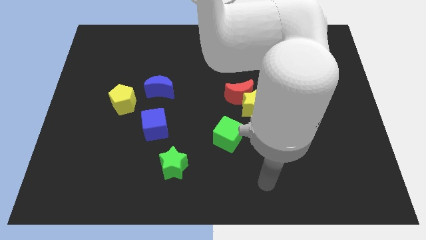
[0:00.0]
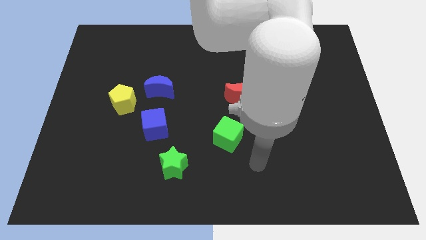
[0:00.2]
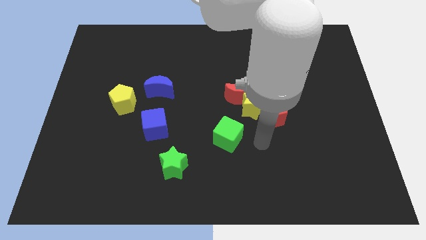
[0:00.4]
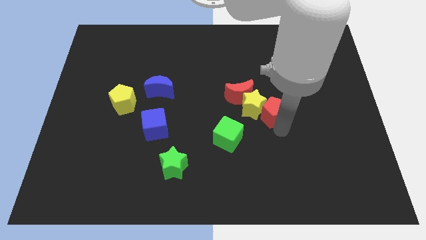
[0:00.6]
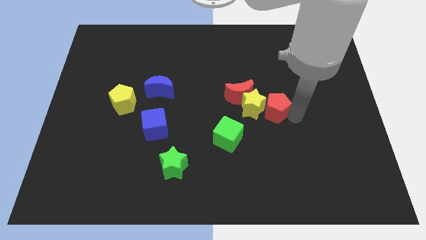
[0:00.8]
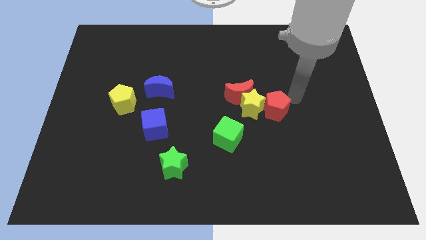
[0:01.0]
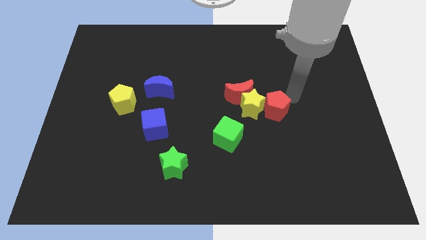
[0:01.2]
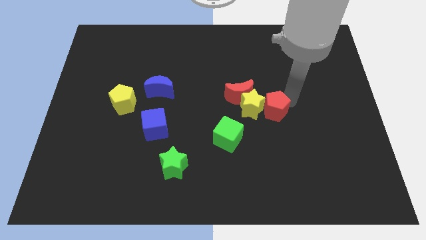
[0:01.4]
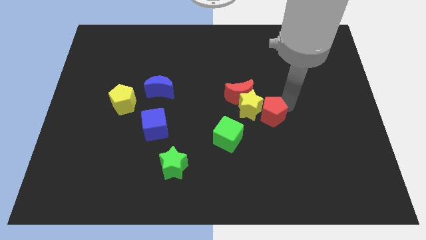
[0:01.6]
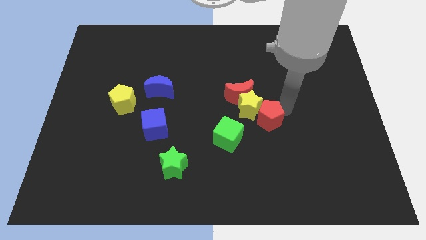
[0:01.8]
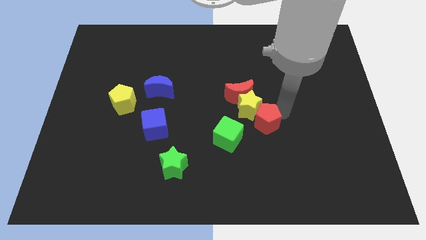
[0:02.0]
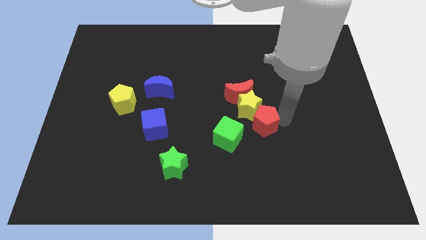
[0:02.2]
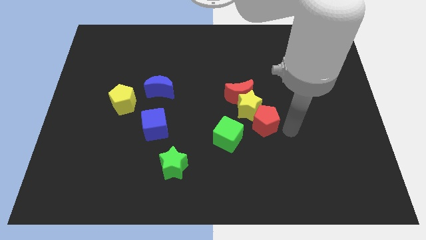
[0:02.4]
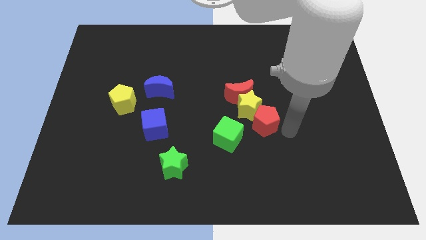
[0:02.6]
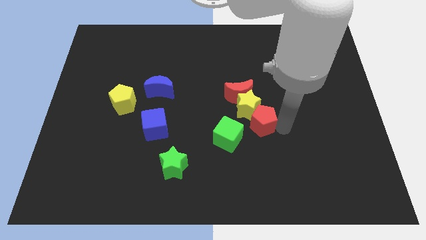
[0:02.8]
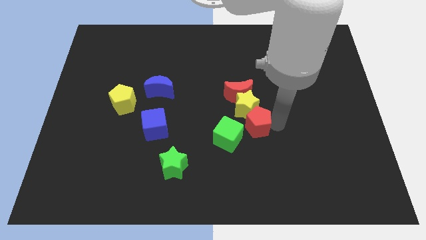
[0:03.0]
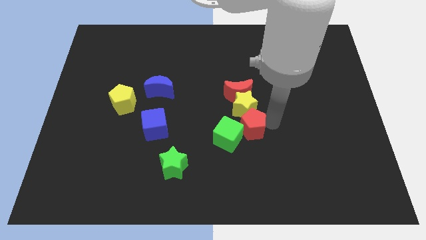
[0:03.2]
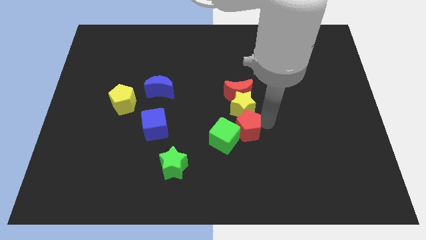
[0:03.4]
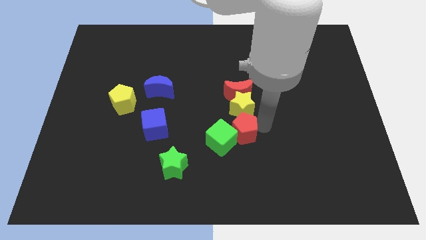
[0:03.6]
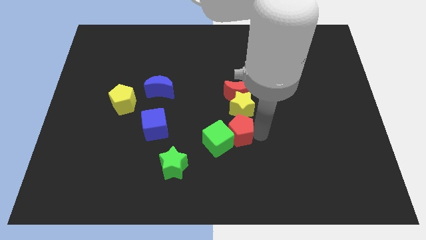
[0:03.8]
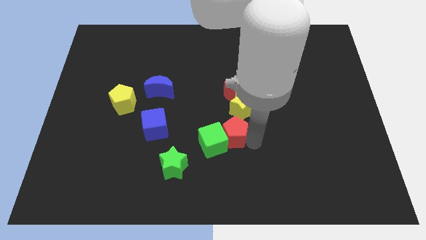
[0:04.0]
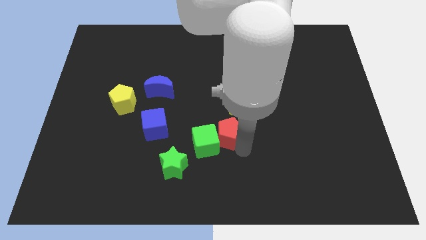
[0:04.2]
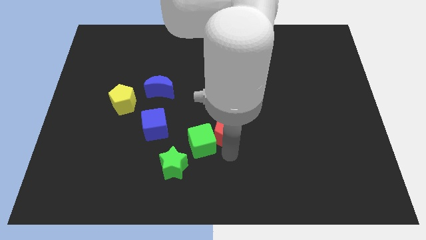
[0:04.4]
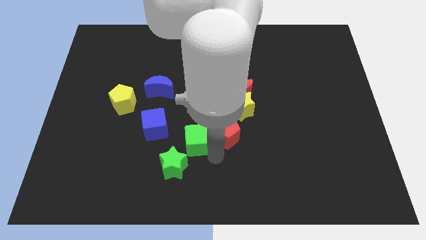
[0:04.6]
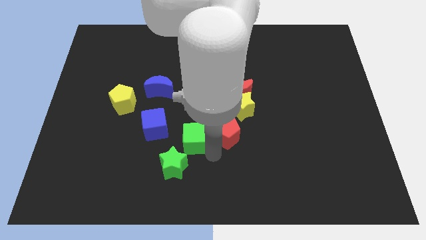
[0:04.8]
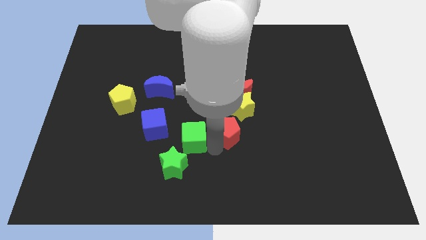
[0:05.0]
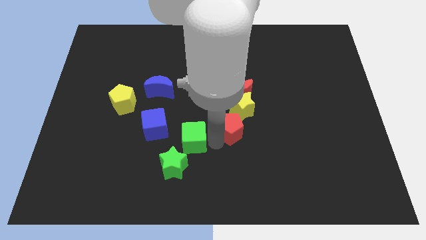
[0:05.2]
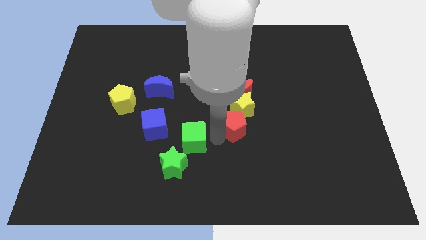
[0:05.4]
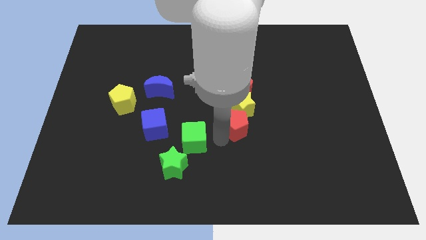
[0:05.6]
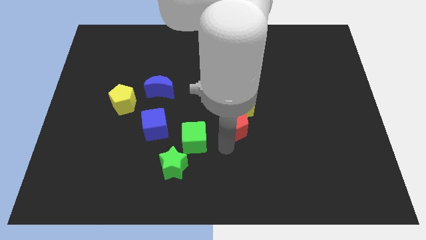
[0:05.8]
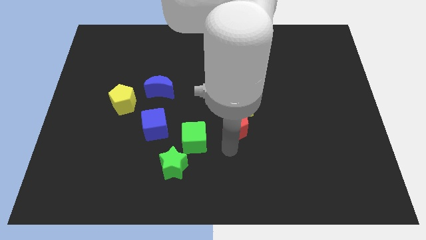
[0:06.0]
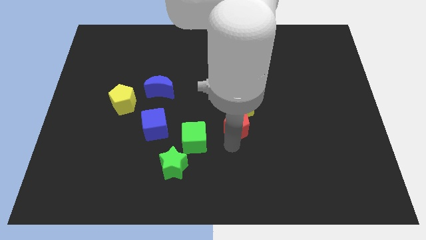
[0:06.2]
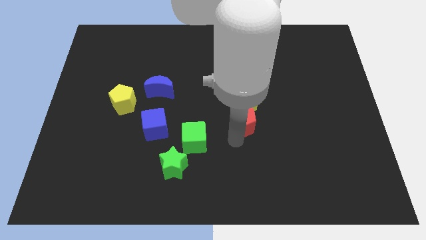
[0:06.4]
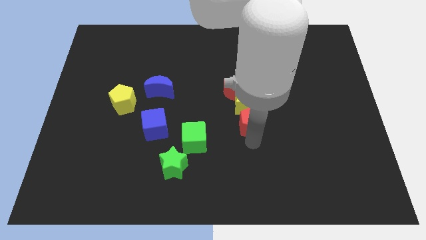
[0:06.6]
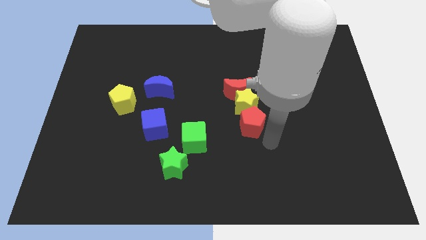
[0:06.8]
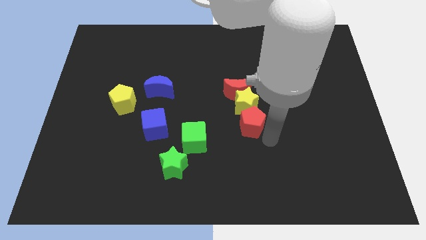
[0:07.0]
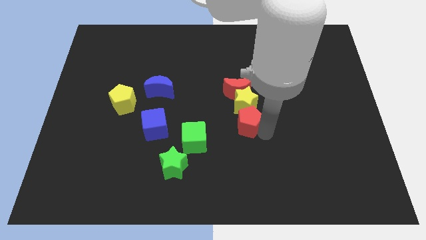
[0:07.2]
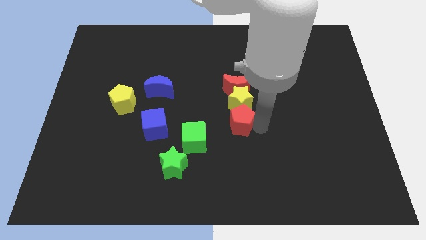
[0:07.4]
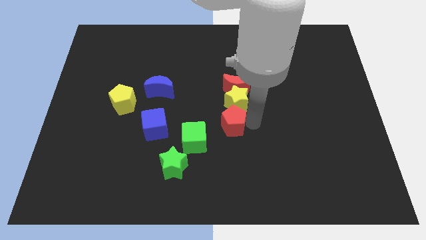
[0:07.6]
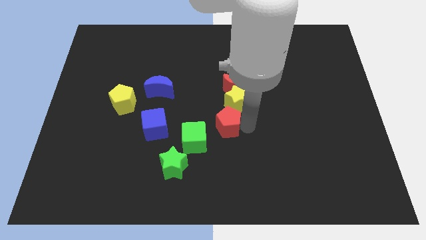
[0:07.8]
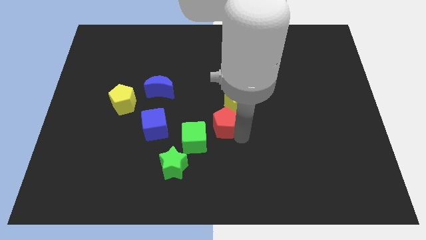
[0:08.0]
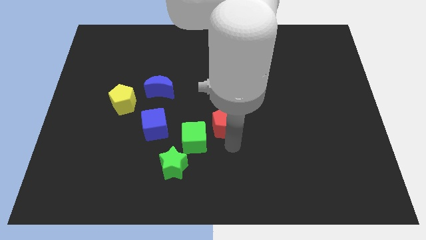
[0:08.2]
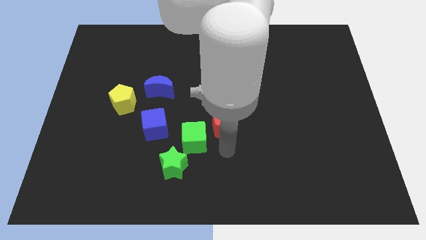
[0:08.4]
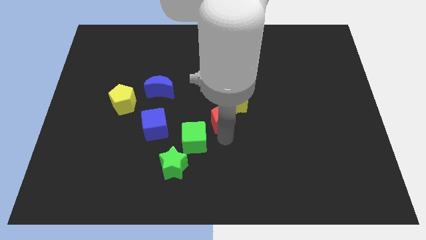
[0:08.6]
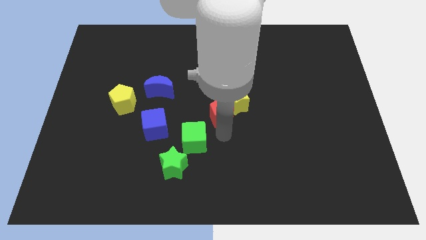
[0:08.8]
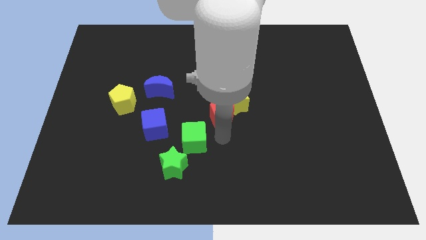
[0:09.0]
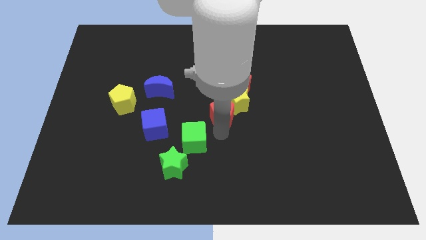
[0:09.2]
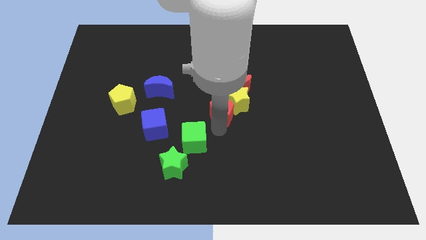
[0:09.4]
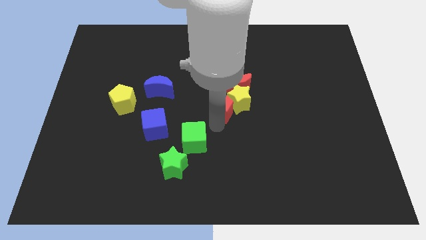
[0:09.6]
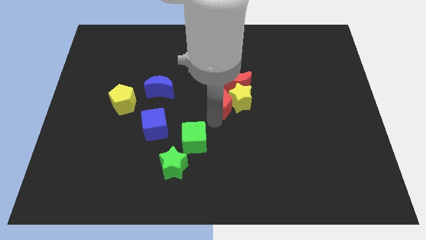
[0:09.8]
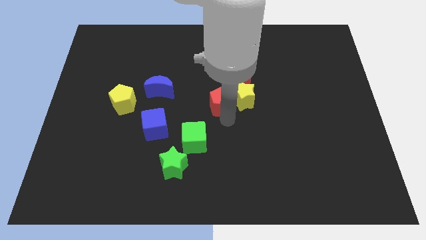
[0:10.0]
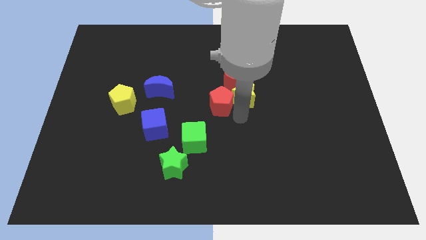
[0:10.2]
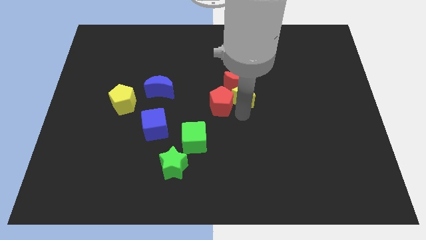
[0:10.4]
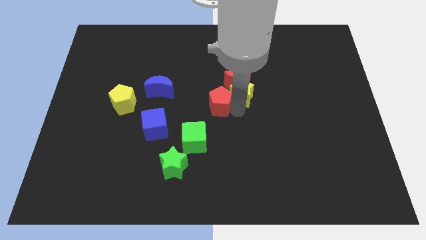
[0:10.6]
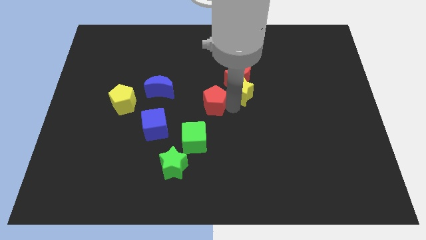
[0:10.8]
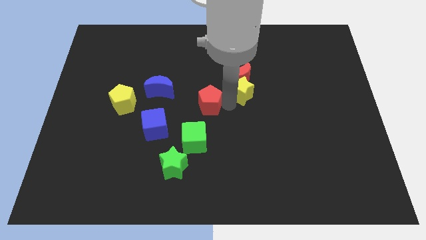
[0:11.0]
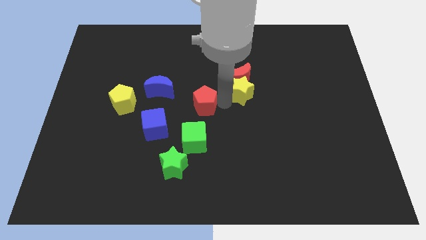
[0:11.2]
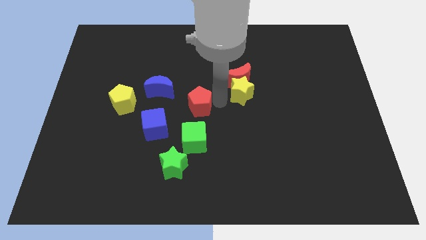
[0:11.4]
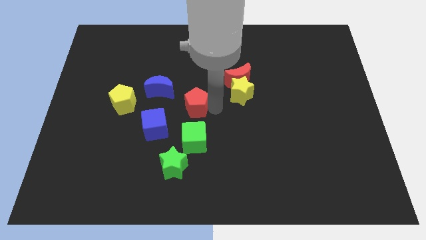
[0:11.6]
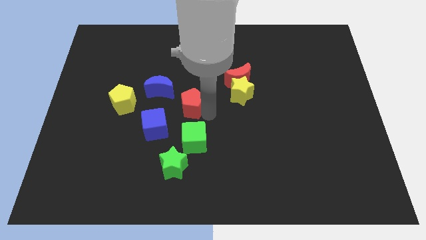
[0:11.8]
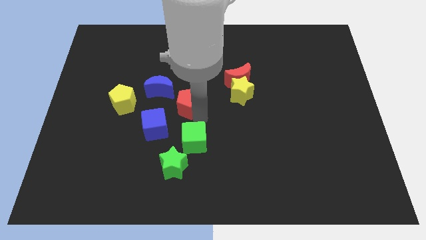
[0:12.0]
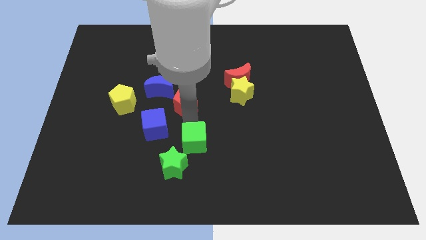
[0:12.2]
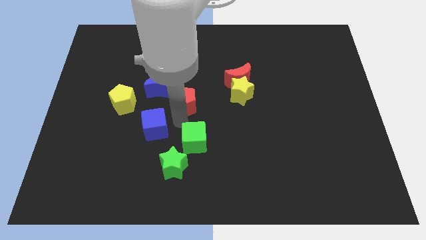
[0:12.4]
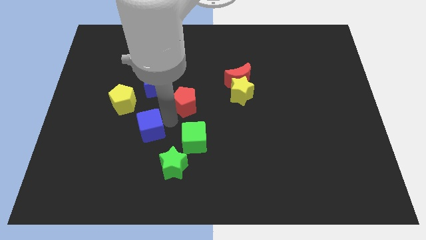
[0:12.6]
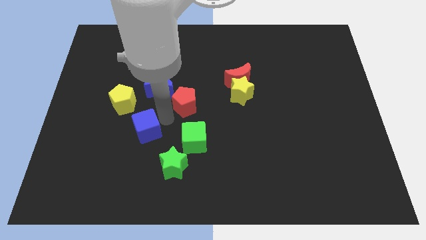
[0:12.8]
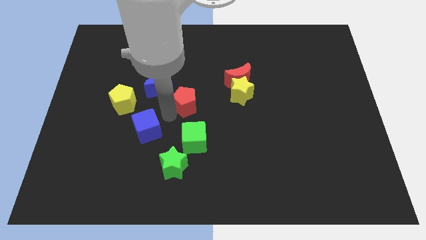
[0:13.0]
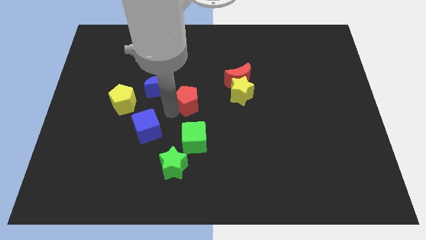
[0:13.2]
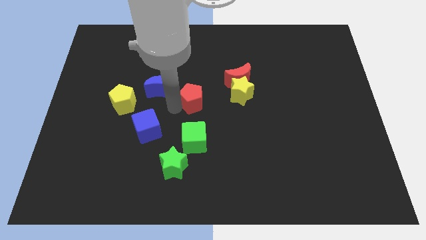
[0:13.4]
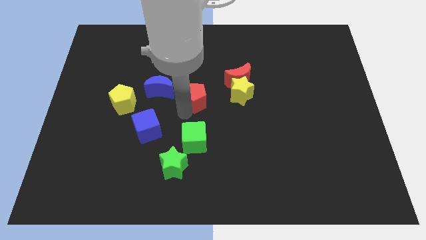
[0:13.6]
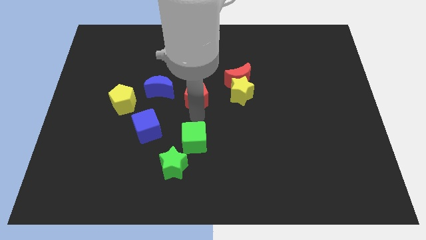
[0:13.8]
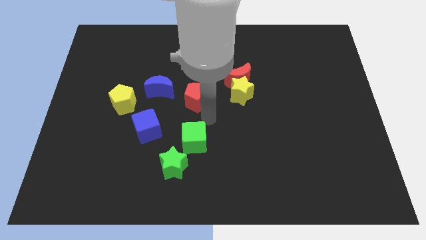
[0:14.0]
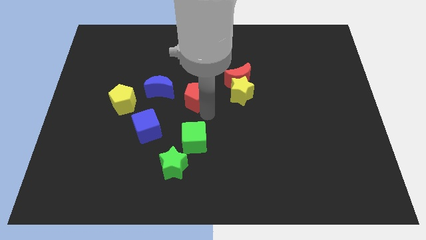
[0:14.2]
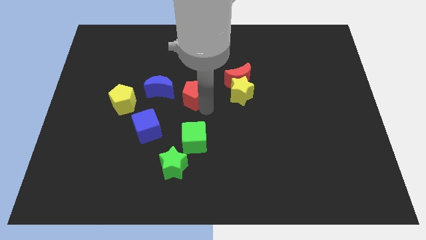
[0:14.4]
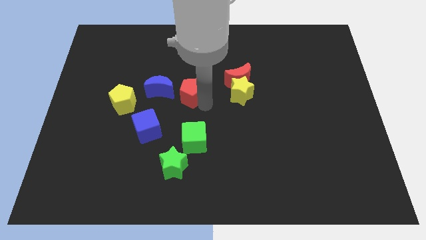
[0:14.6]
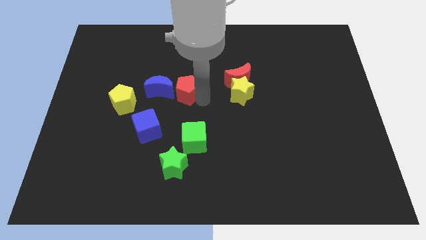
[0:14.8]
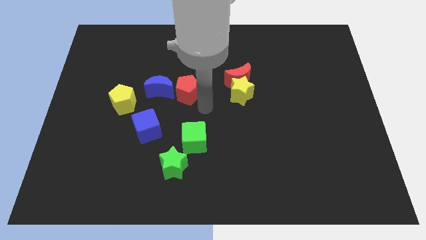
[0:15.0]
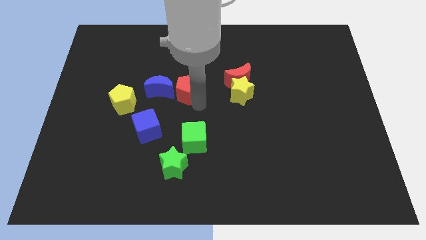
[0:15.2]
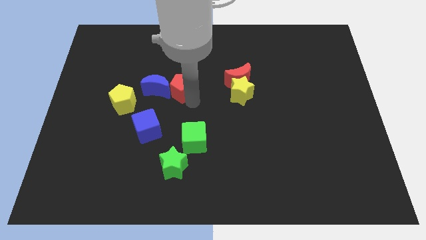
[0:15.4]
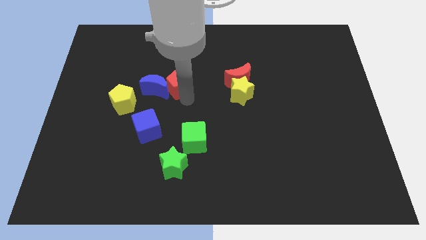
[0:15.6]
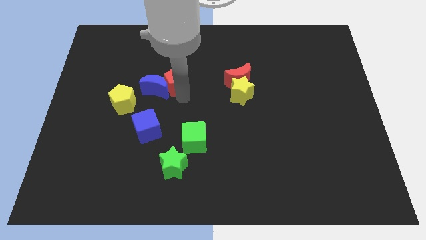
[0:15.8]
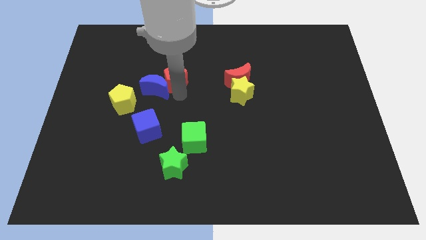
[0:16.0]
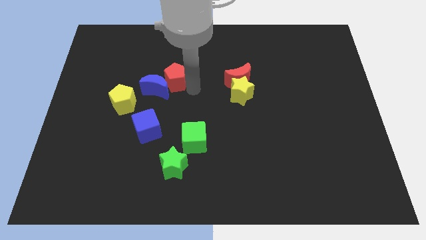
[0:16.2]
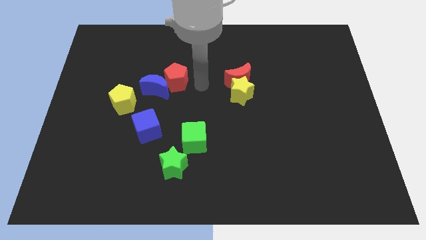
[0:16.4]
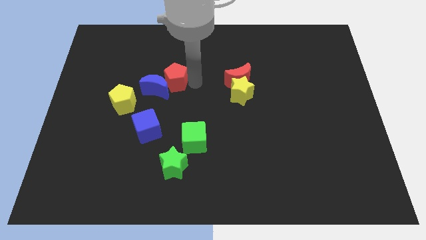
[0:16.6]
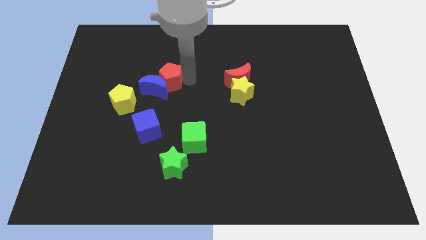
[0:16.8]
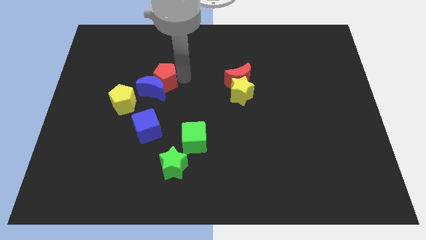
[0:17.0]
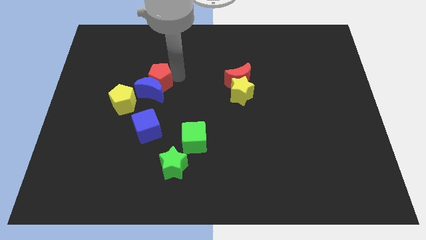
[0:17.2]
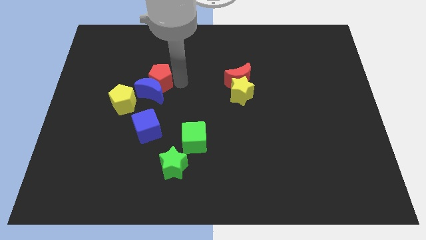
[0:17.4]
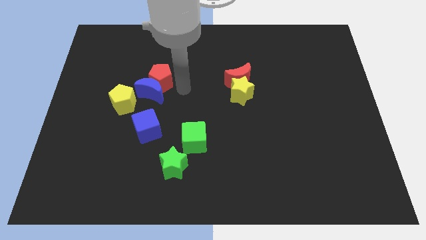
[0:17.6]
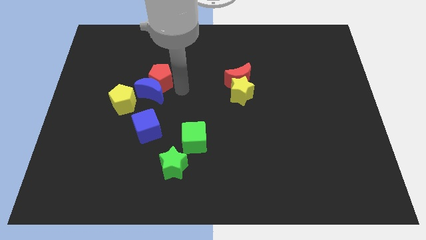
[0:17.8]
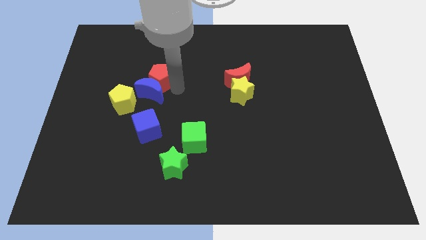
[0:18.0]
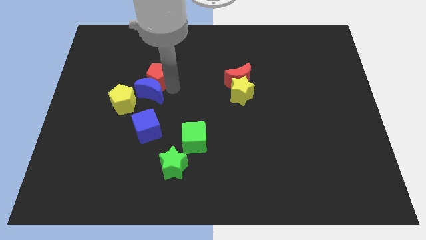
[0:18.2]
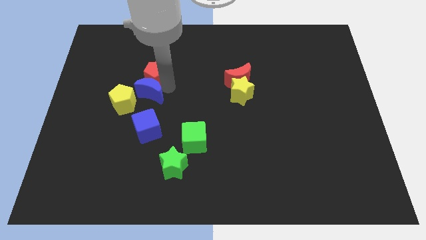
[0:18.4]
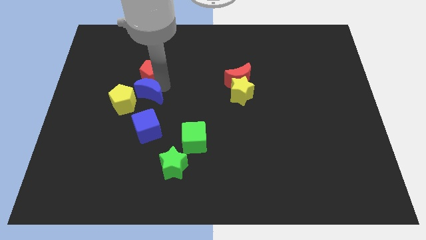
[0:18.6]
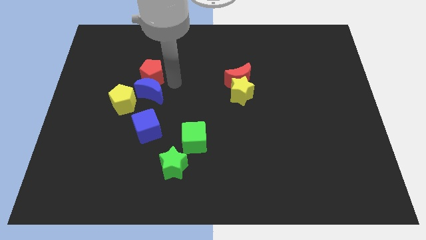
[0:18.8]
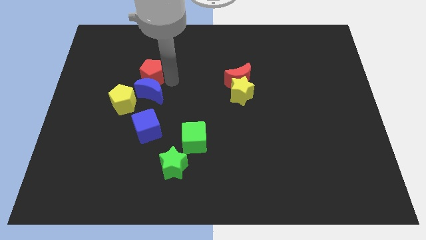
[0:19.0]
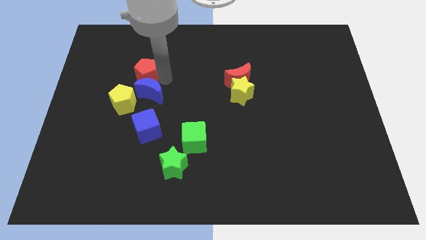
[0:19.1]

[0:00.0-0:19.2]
put the red pentagon to the top of the yellow pentagon
